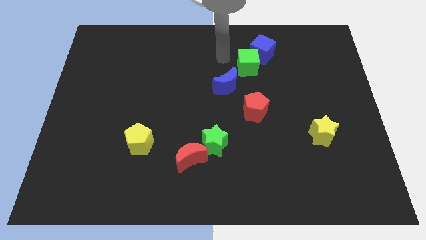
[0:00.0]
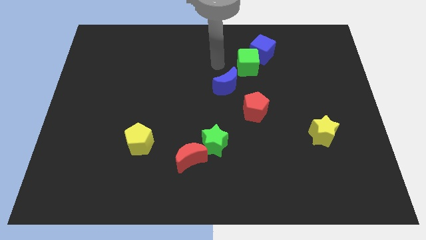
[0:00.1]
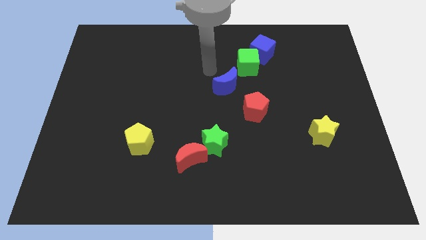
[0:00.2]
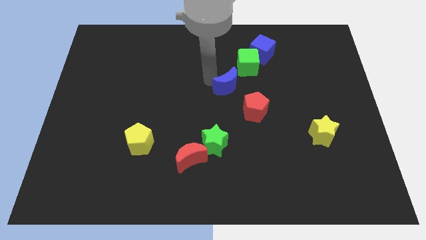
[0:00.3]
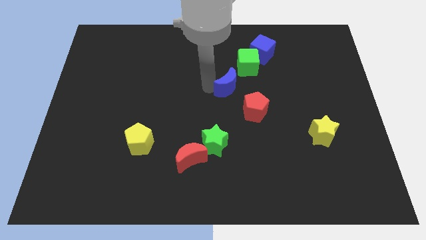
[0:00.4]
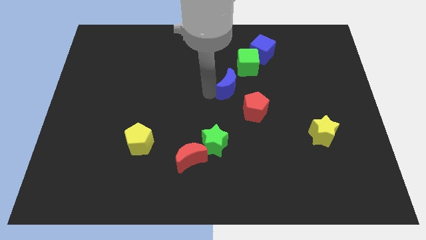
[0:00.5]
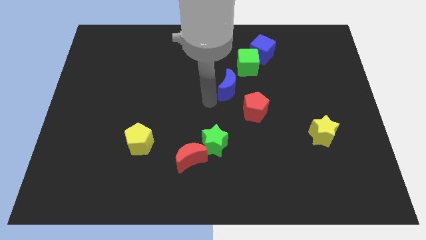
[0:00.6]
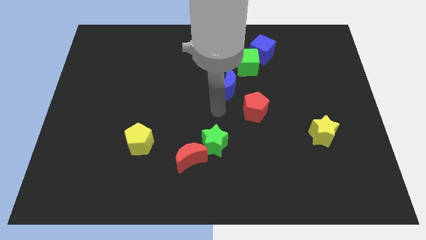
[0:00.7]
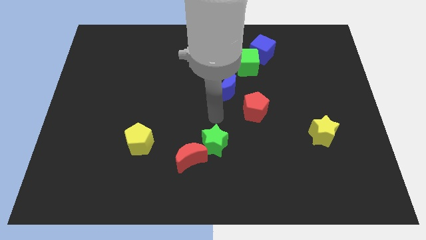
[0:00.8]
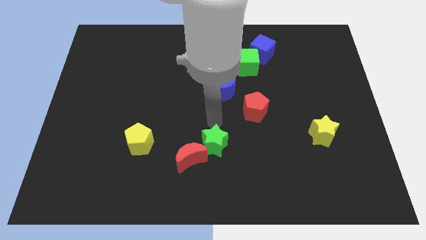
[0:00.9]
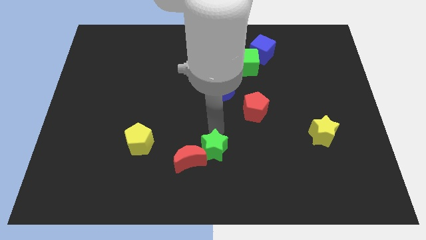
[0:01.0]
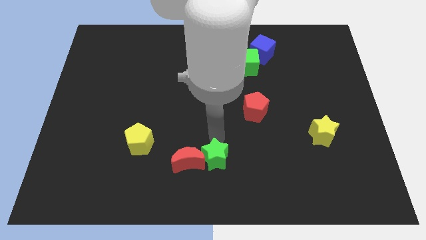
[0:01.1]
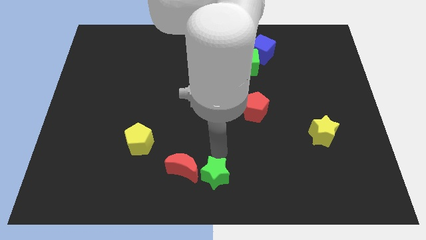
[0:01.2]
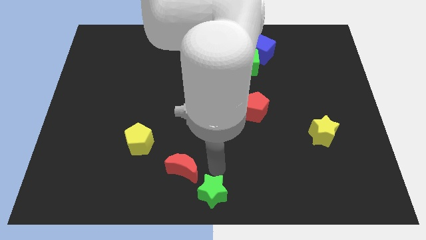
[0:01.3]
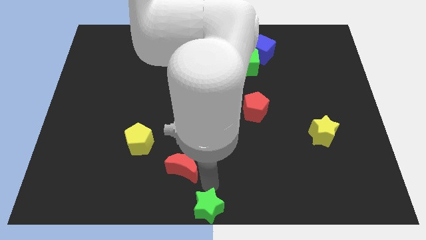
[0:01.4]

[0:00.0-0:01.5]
separate the red moon from the green star

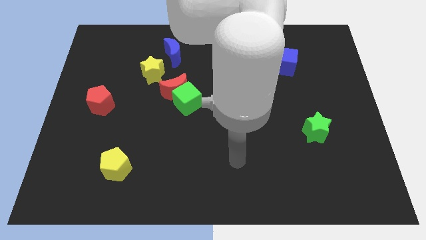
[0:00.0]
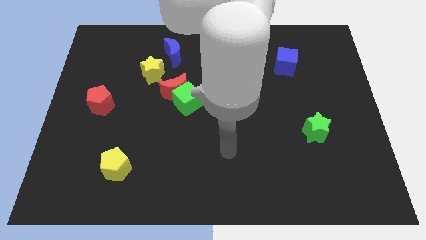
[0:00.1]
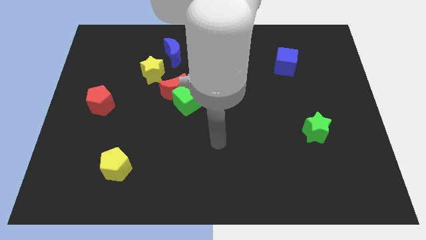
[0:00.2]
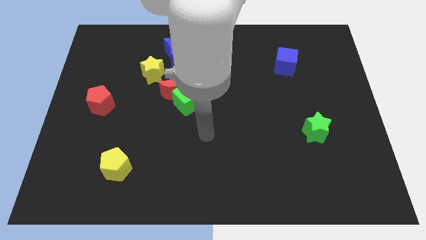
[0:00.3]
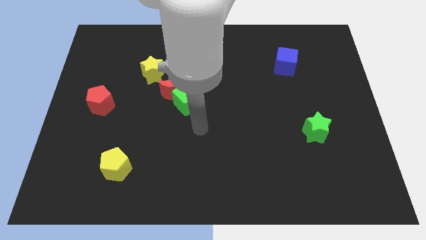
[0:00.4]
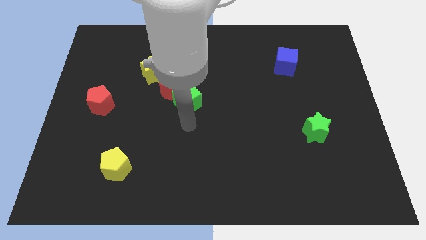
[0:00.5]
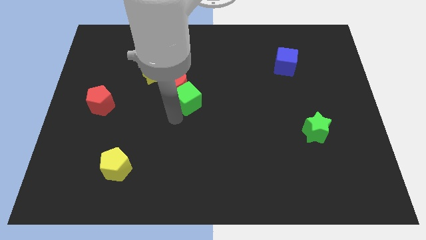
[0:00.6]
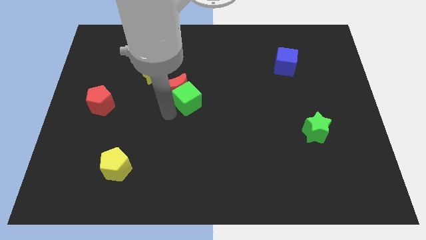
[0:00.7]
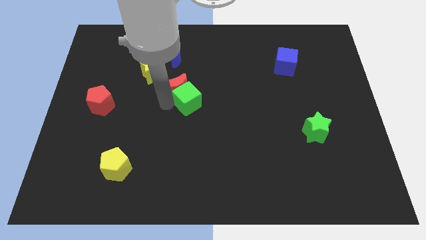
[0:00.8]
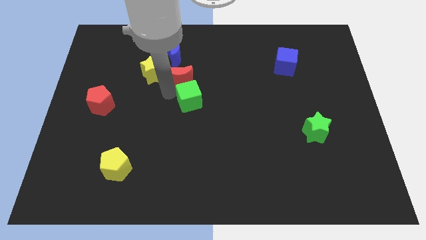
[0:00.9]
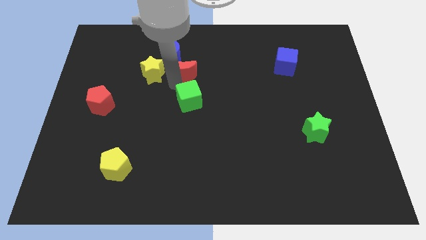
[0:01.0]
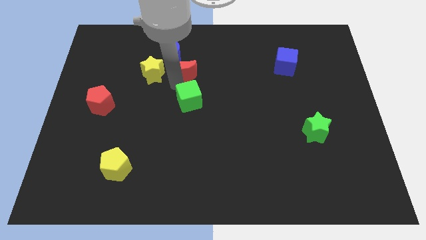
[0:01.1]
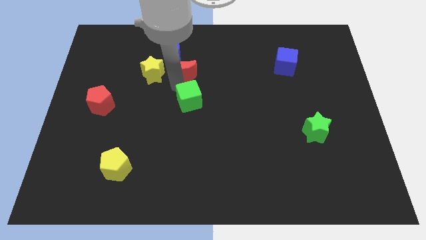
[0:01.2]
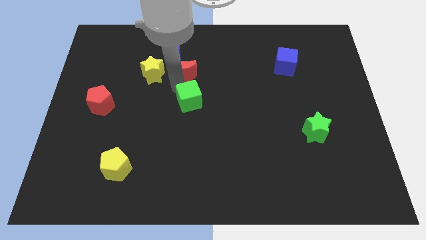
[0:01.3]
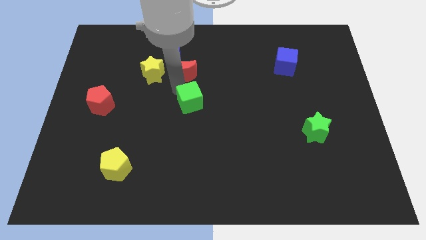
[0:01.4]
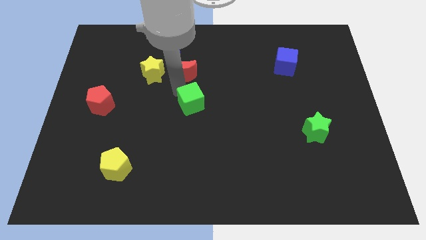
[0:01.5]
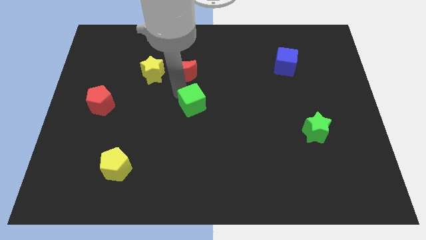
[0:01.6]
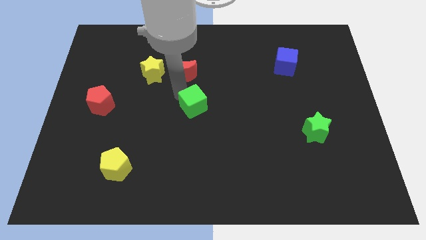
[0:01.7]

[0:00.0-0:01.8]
pull the green cube apart from the red moon

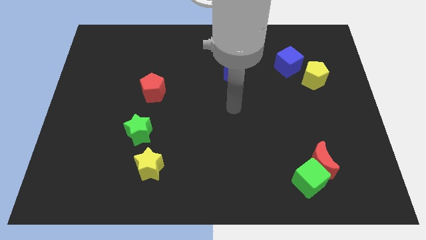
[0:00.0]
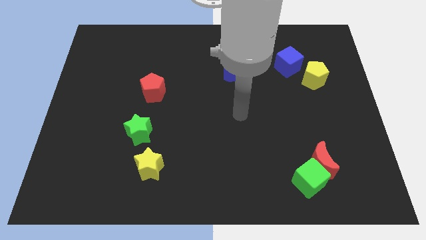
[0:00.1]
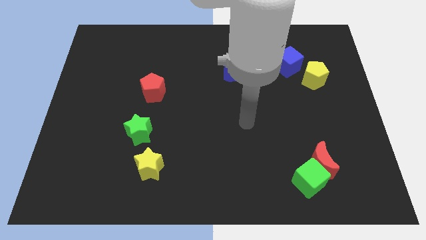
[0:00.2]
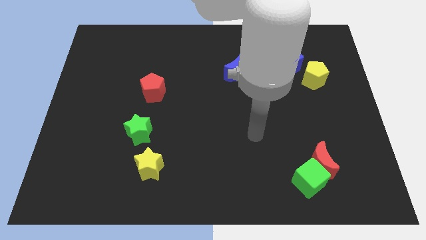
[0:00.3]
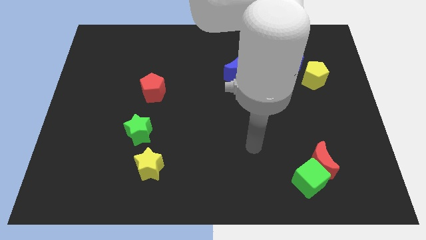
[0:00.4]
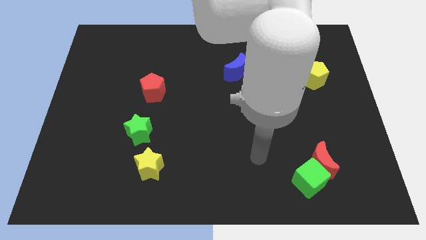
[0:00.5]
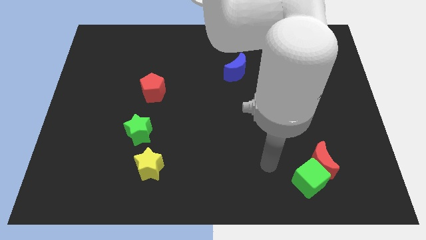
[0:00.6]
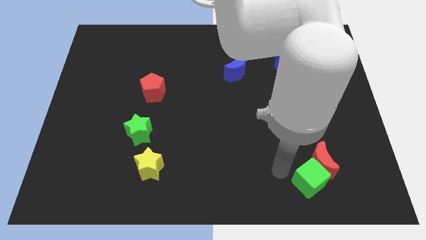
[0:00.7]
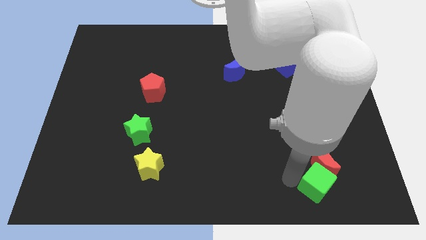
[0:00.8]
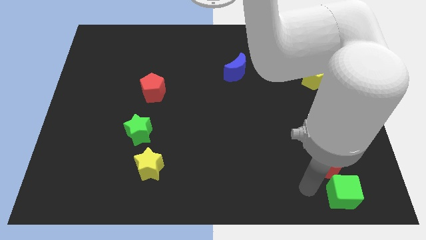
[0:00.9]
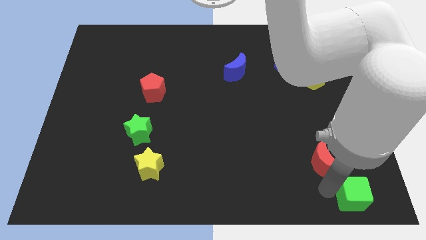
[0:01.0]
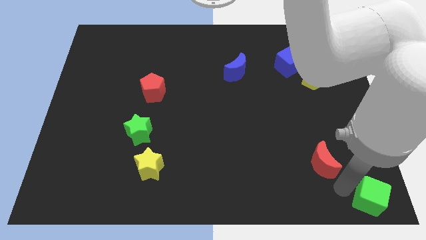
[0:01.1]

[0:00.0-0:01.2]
move the red moon away from the green cube

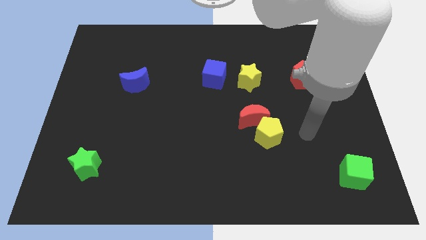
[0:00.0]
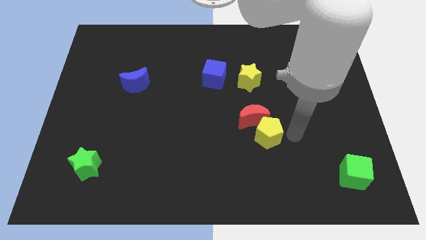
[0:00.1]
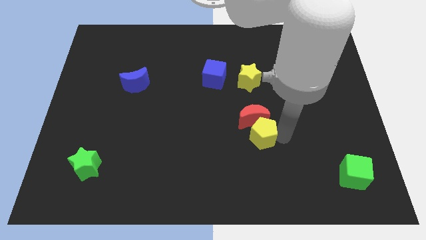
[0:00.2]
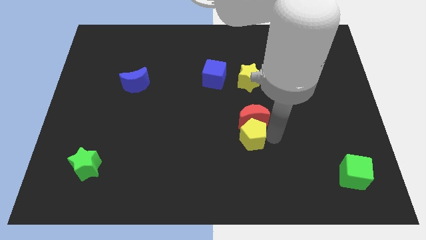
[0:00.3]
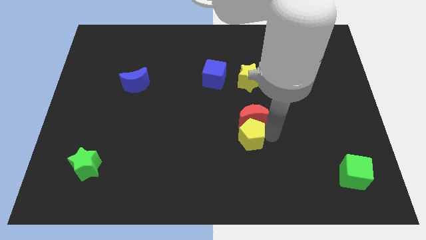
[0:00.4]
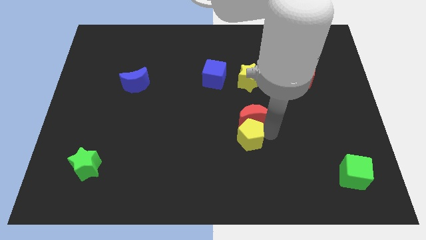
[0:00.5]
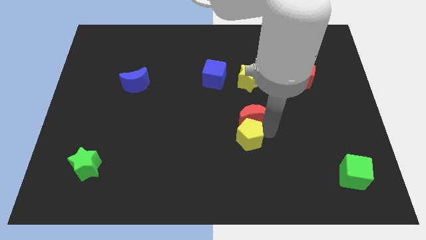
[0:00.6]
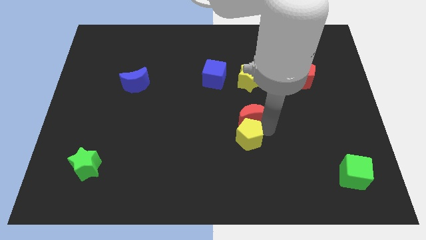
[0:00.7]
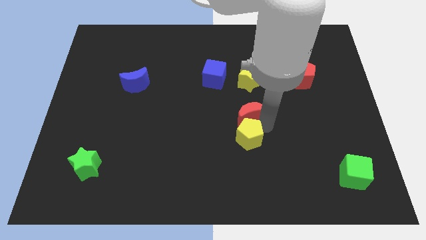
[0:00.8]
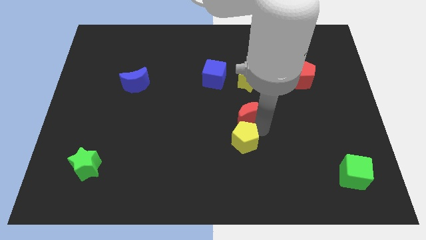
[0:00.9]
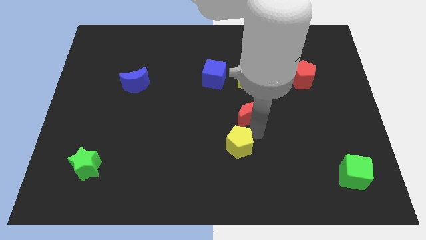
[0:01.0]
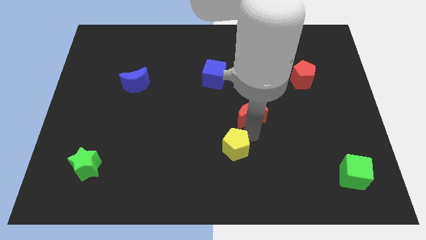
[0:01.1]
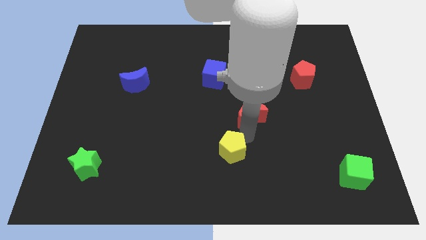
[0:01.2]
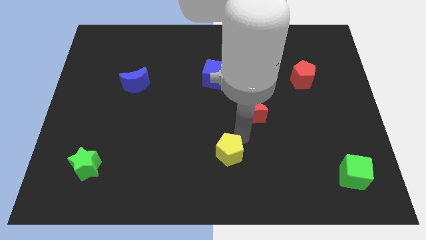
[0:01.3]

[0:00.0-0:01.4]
separate the red moon from the yellow pentagon

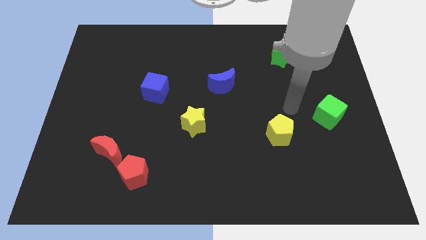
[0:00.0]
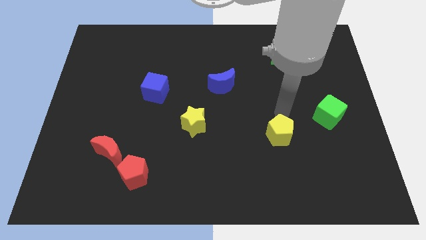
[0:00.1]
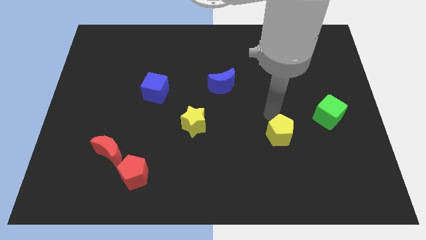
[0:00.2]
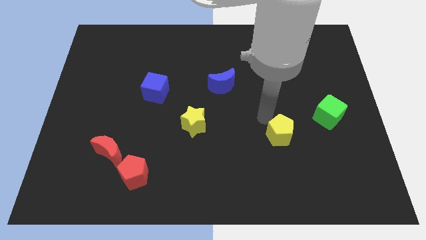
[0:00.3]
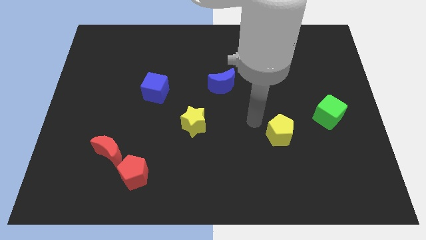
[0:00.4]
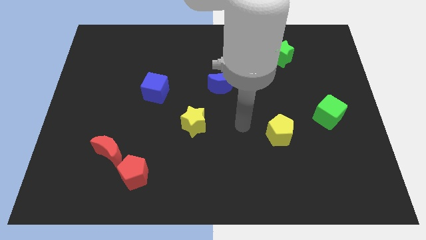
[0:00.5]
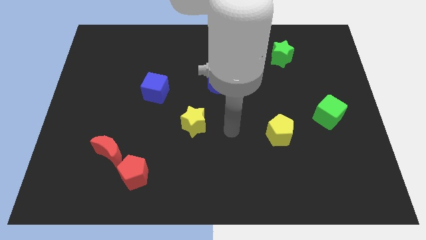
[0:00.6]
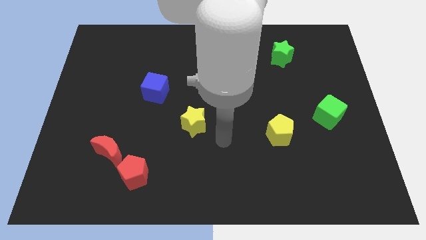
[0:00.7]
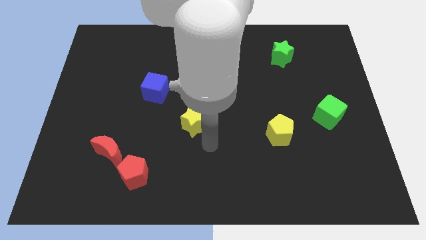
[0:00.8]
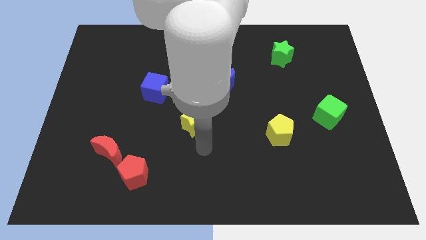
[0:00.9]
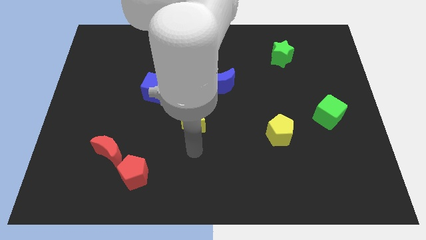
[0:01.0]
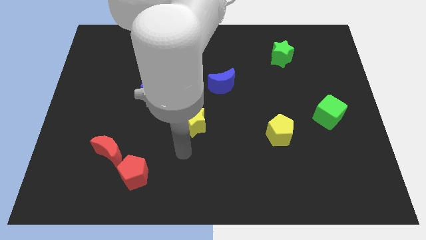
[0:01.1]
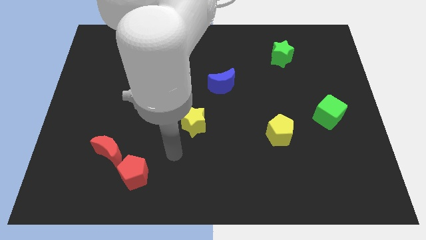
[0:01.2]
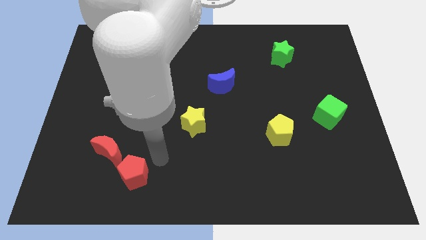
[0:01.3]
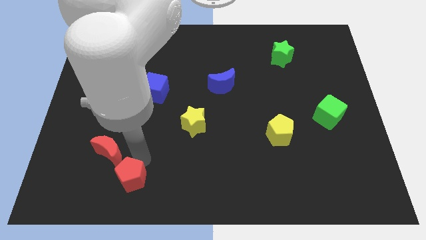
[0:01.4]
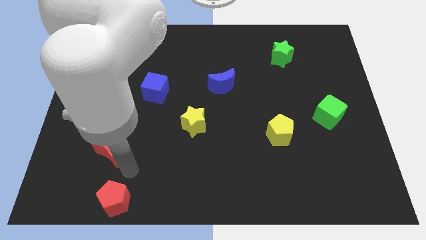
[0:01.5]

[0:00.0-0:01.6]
move the red moon away from the red pentagon

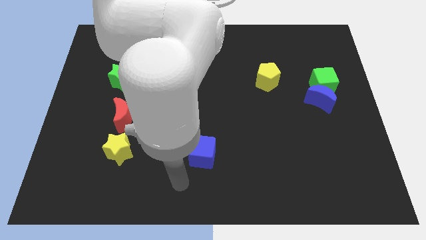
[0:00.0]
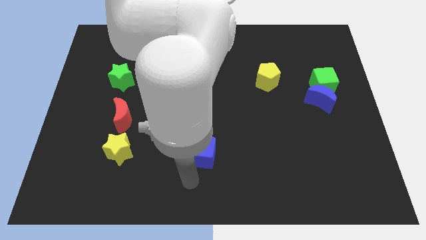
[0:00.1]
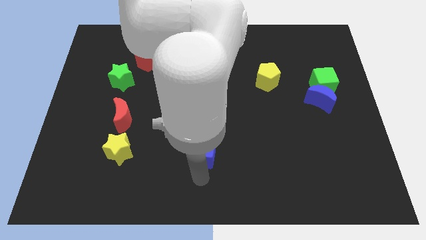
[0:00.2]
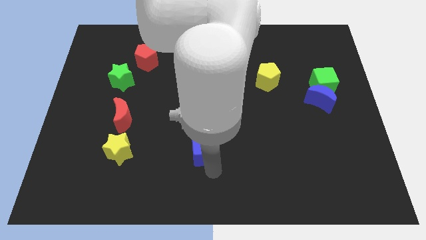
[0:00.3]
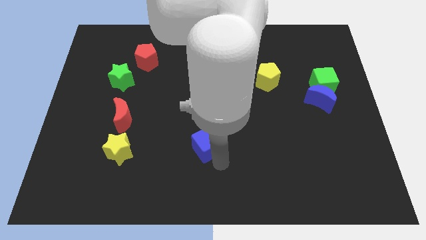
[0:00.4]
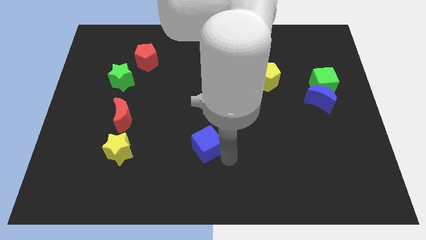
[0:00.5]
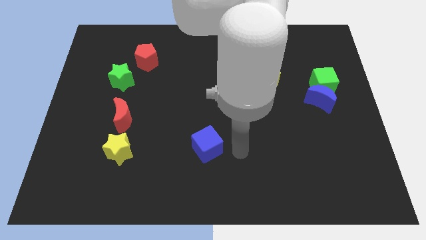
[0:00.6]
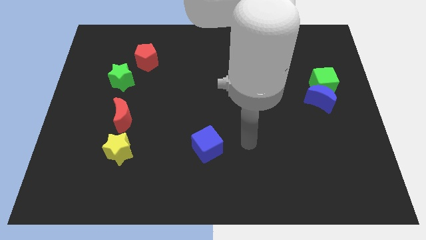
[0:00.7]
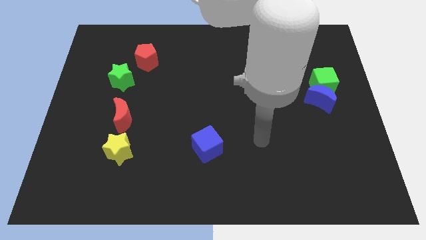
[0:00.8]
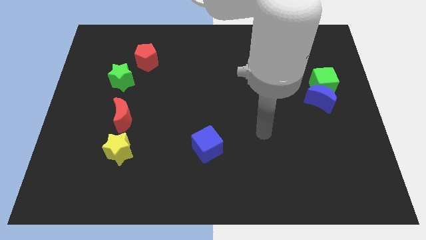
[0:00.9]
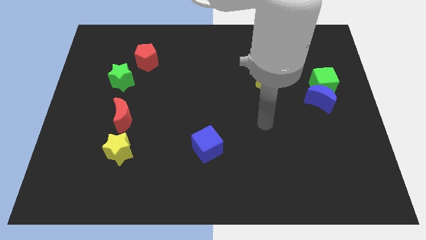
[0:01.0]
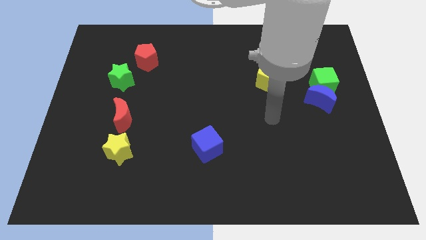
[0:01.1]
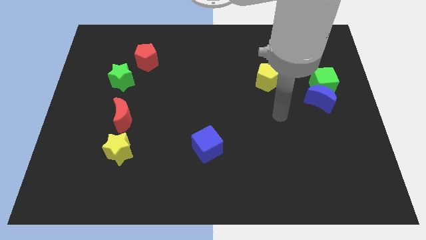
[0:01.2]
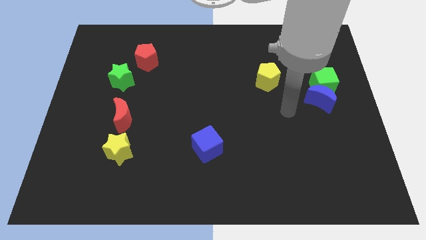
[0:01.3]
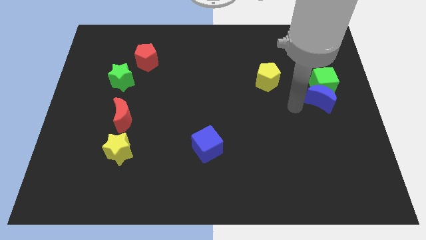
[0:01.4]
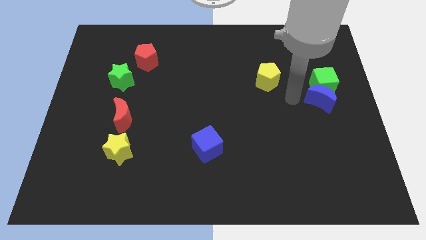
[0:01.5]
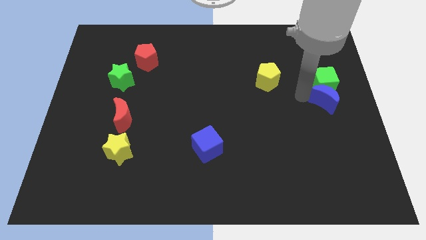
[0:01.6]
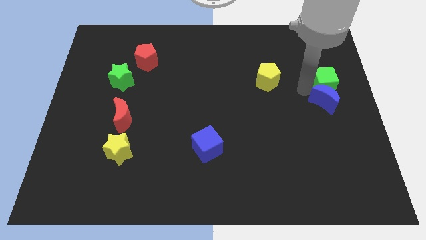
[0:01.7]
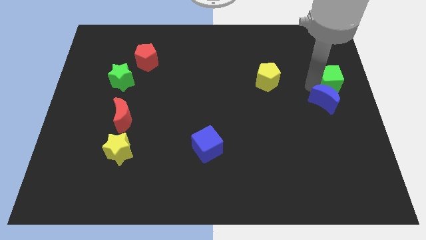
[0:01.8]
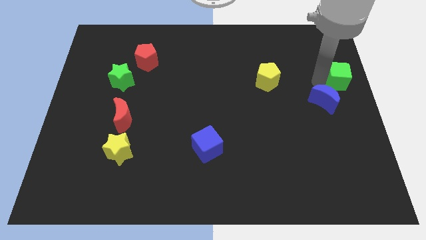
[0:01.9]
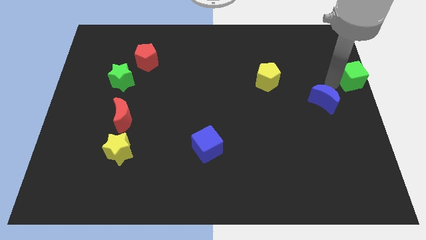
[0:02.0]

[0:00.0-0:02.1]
pull the blue moon apart from the green cube
